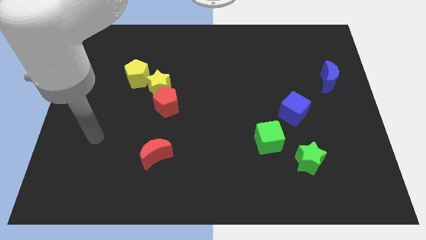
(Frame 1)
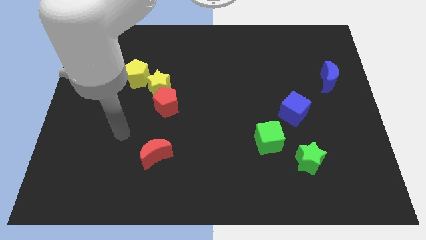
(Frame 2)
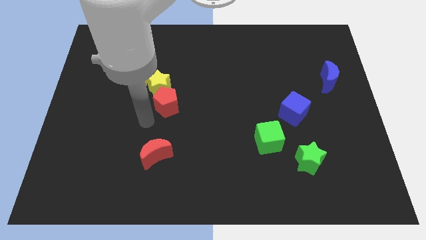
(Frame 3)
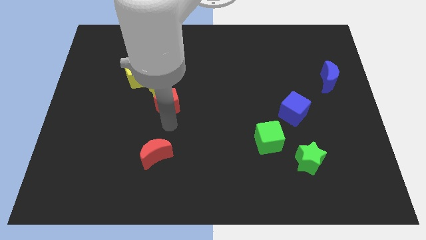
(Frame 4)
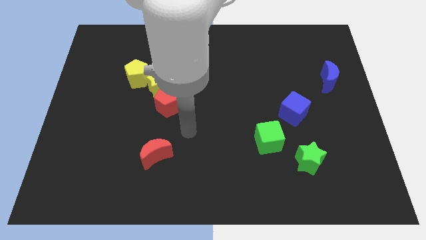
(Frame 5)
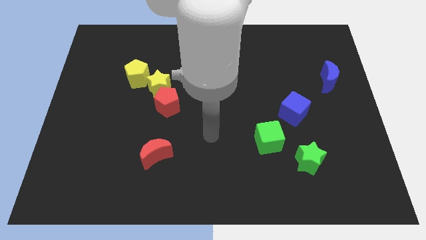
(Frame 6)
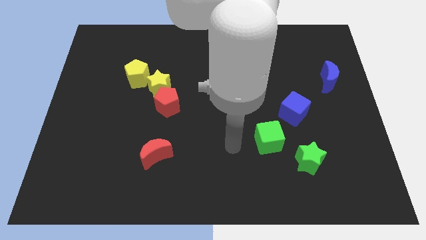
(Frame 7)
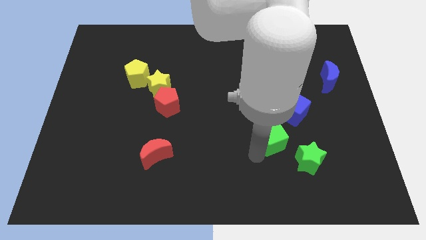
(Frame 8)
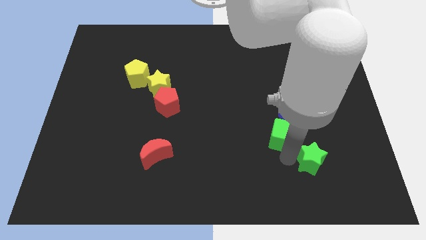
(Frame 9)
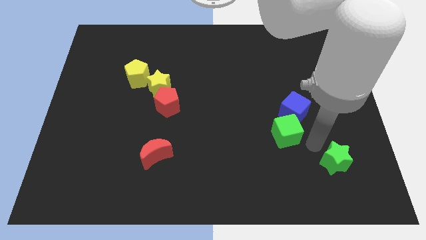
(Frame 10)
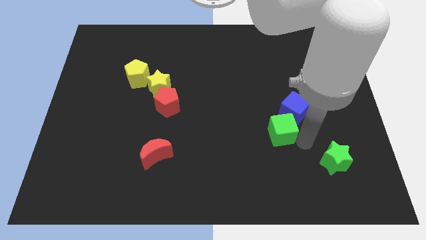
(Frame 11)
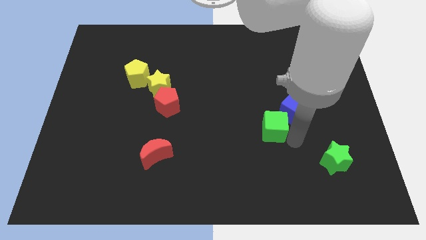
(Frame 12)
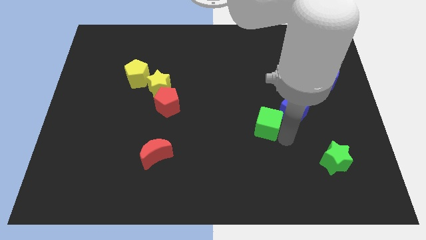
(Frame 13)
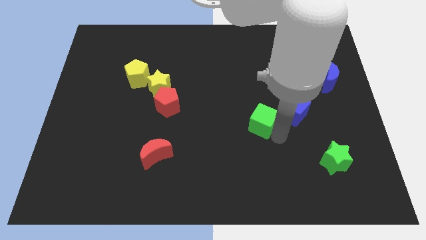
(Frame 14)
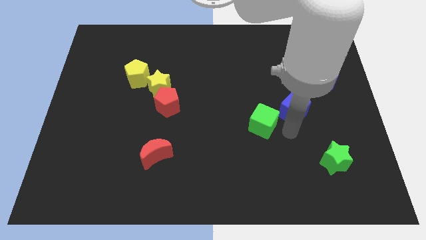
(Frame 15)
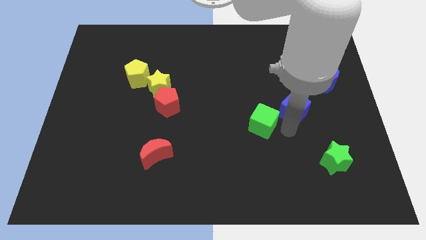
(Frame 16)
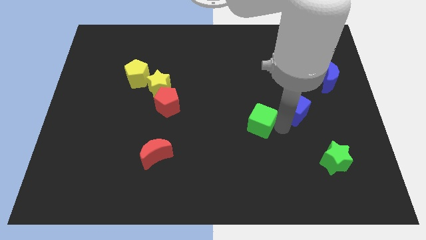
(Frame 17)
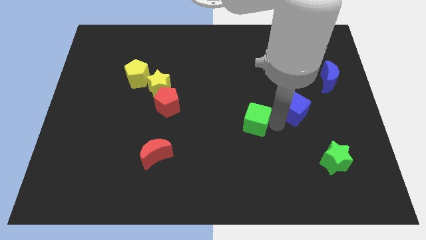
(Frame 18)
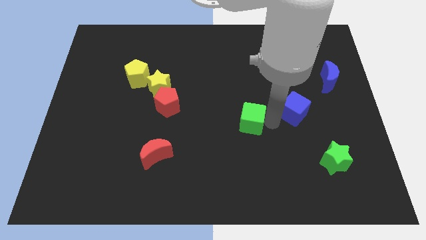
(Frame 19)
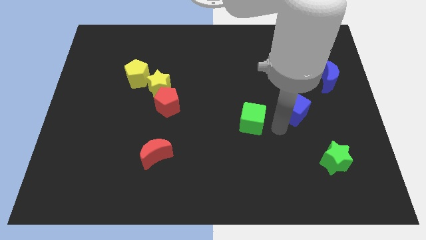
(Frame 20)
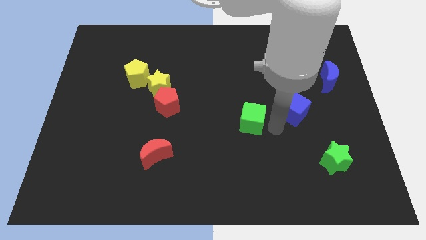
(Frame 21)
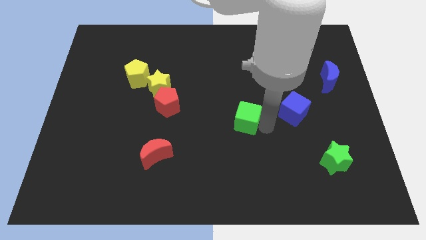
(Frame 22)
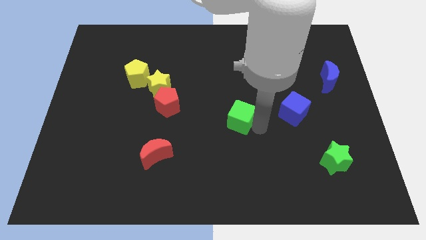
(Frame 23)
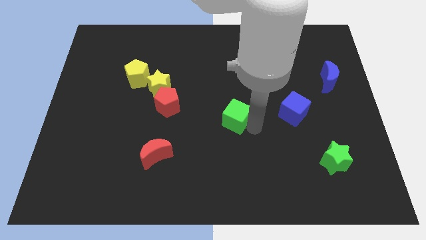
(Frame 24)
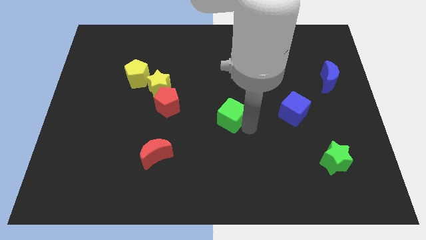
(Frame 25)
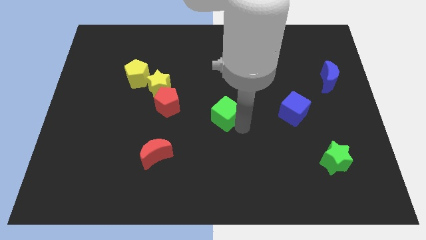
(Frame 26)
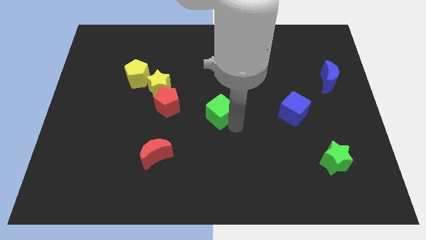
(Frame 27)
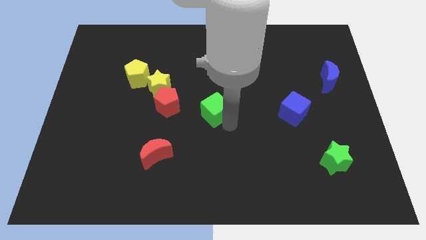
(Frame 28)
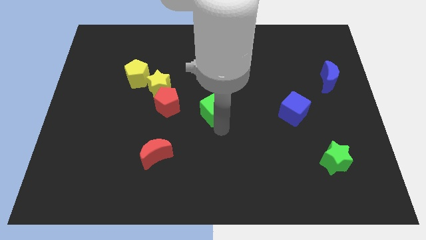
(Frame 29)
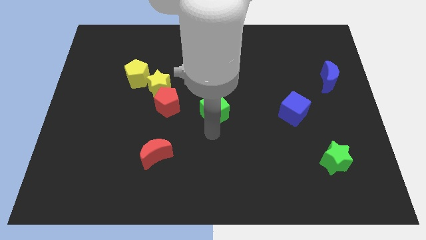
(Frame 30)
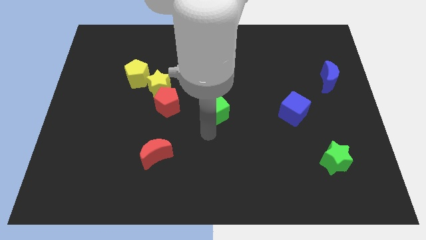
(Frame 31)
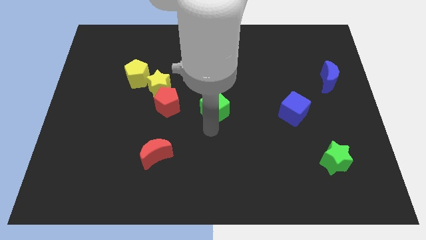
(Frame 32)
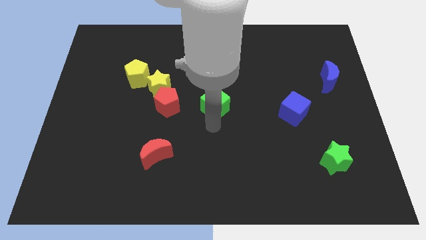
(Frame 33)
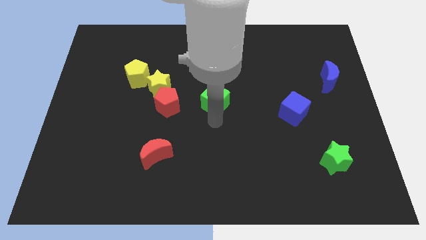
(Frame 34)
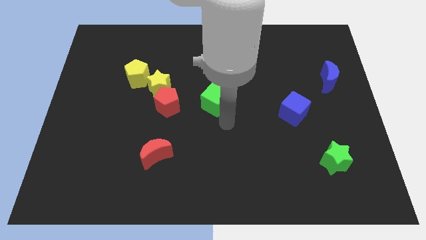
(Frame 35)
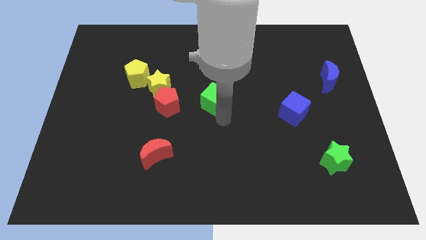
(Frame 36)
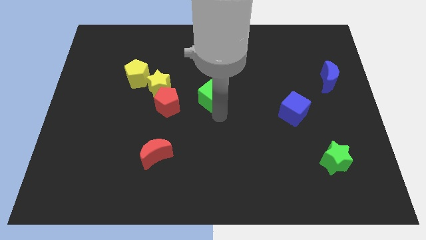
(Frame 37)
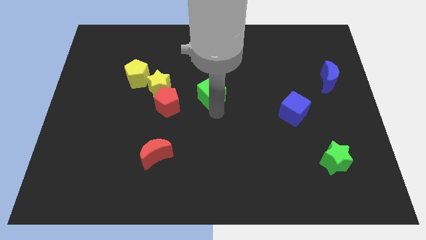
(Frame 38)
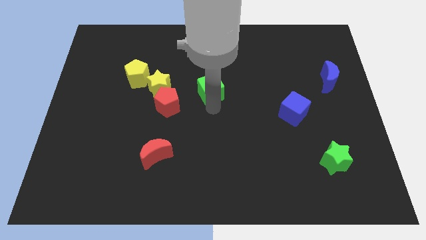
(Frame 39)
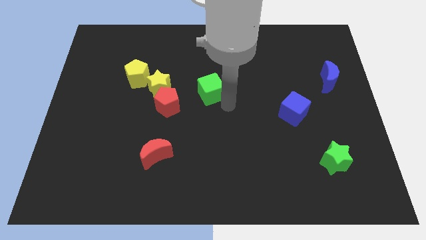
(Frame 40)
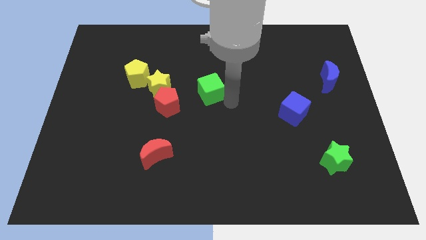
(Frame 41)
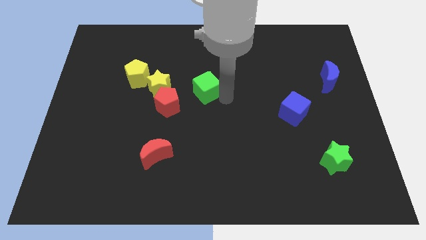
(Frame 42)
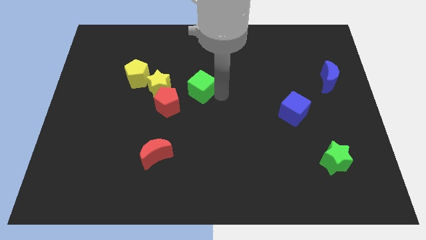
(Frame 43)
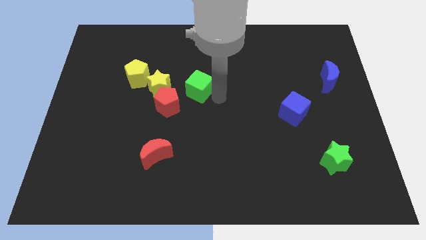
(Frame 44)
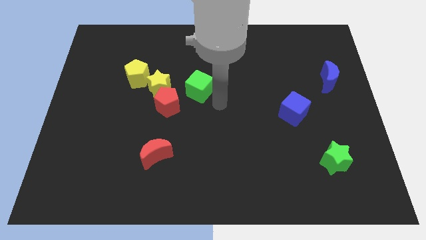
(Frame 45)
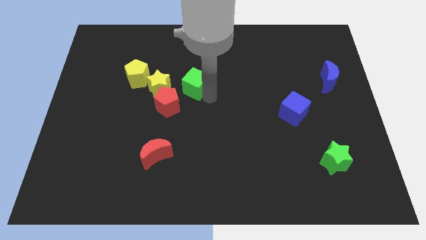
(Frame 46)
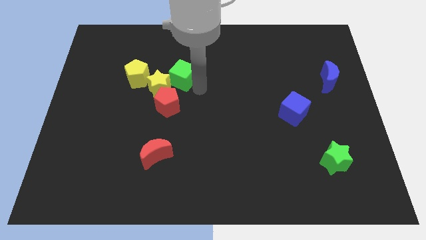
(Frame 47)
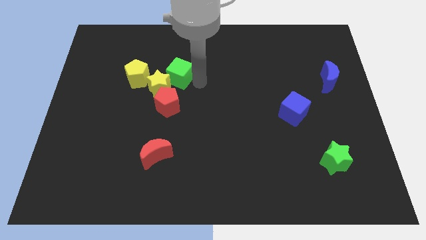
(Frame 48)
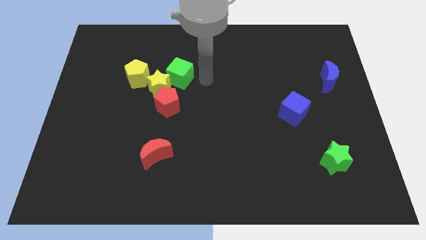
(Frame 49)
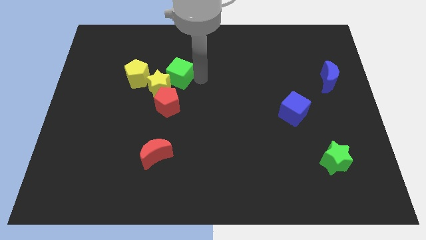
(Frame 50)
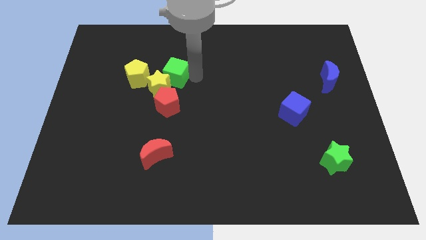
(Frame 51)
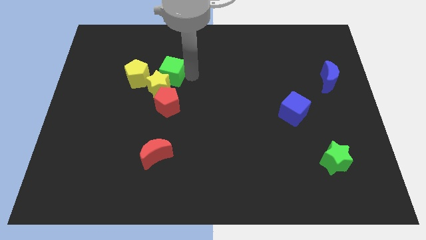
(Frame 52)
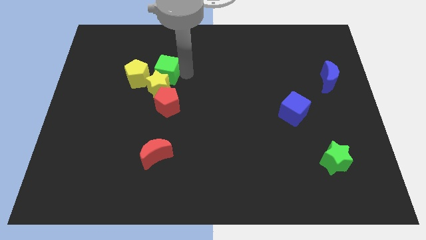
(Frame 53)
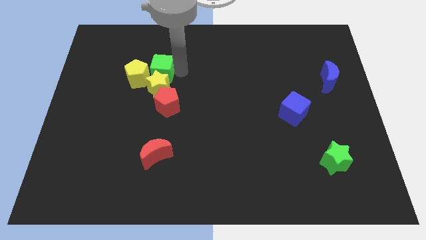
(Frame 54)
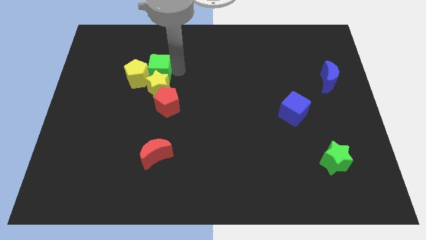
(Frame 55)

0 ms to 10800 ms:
slide the green cube close to the yellow pentagon

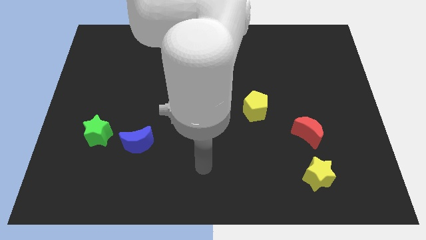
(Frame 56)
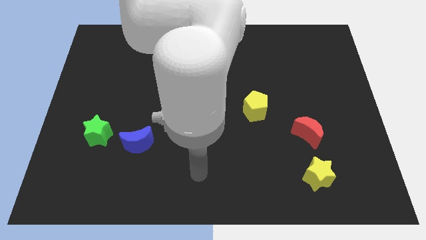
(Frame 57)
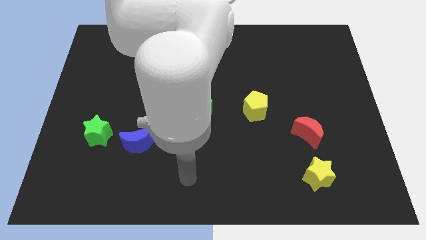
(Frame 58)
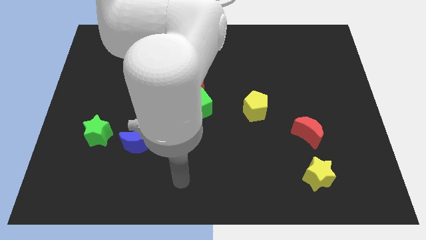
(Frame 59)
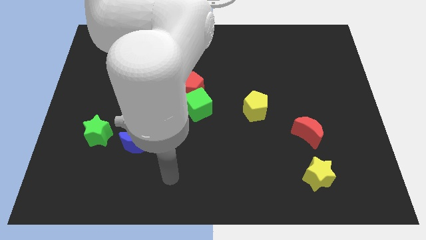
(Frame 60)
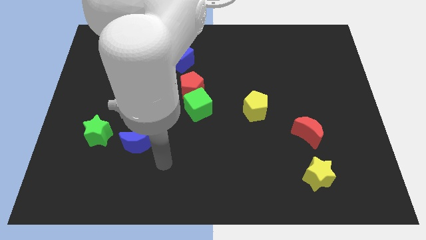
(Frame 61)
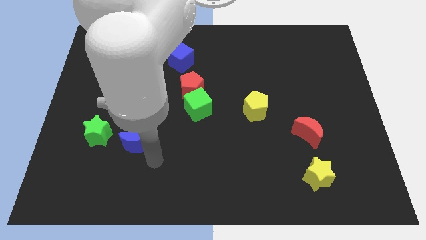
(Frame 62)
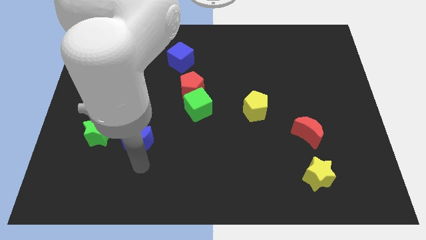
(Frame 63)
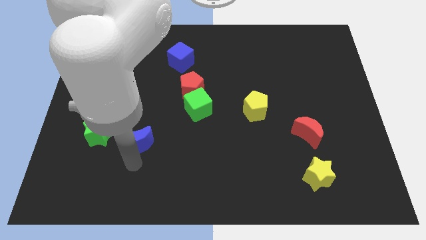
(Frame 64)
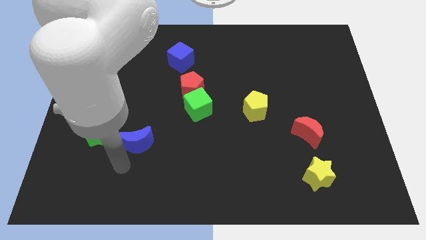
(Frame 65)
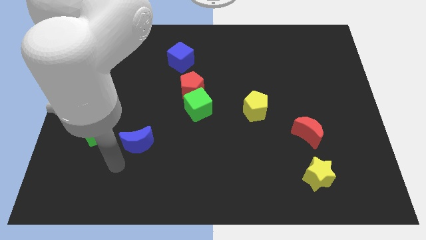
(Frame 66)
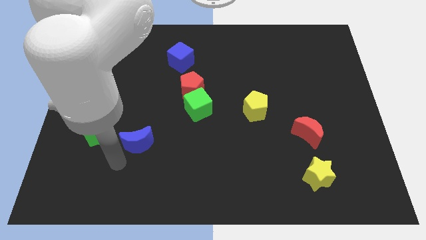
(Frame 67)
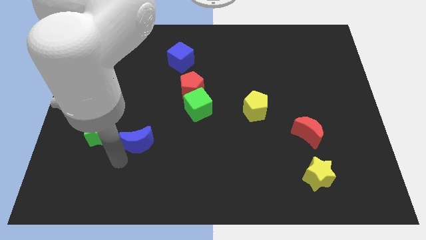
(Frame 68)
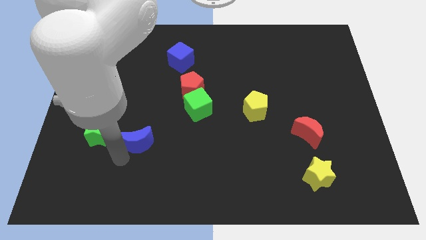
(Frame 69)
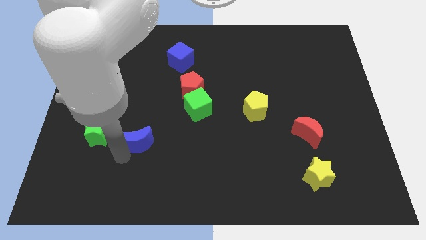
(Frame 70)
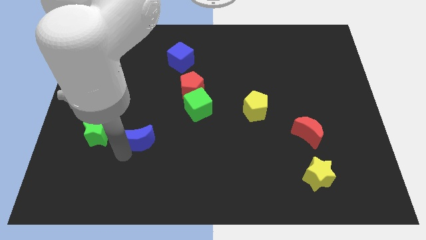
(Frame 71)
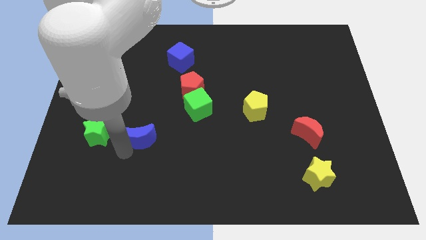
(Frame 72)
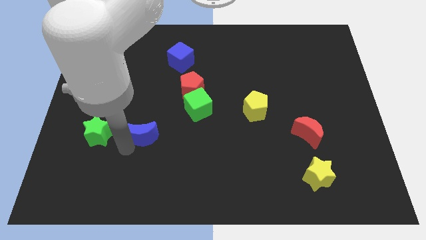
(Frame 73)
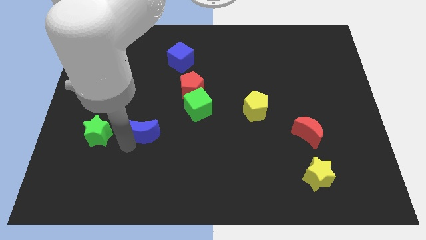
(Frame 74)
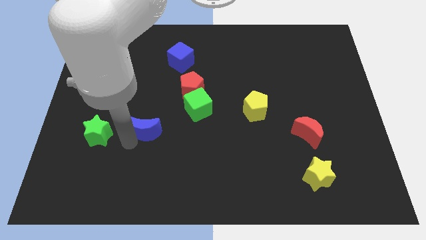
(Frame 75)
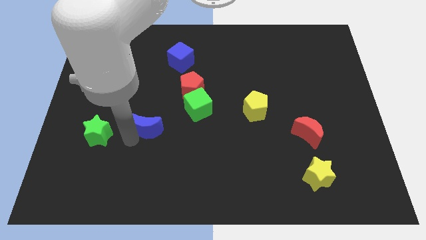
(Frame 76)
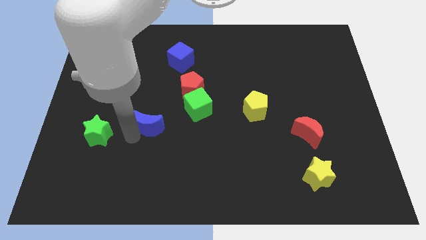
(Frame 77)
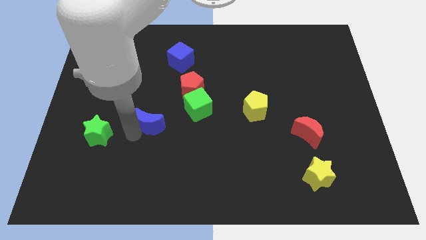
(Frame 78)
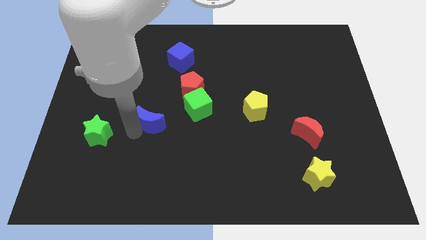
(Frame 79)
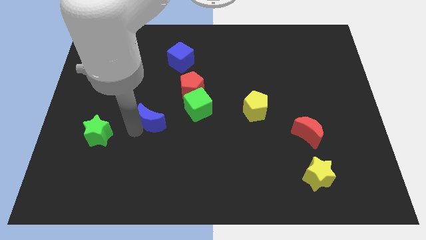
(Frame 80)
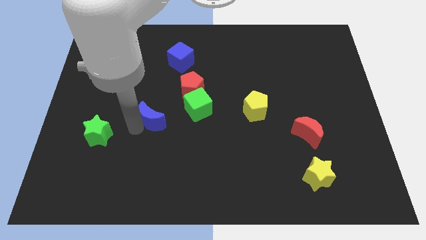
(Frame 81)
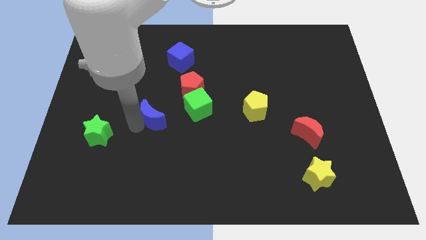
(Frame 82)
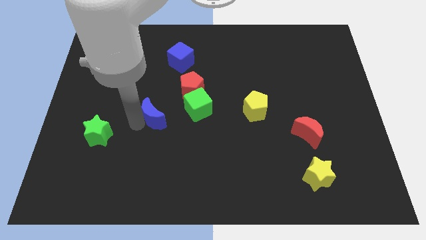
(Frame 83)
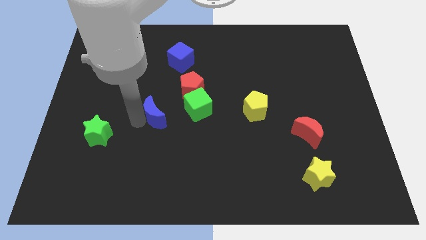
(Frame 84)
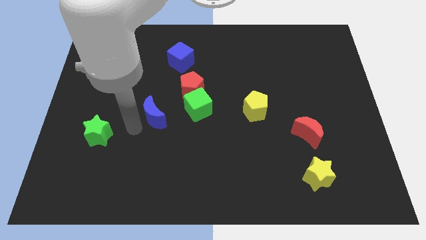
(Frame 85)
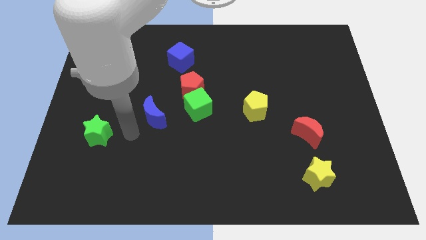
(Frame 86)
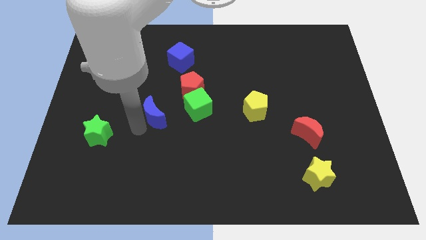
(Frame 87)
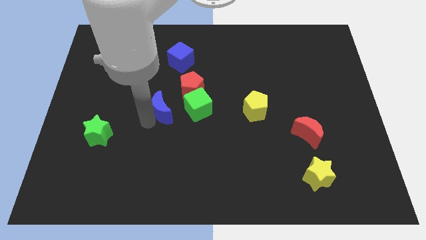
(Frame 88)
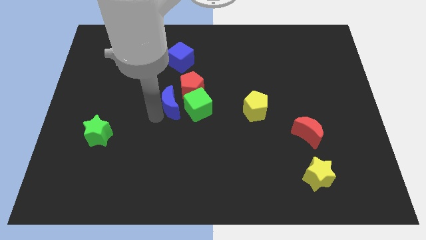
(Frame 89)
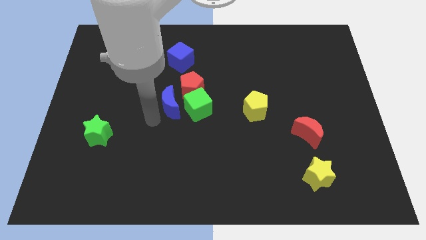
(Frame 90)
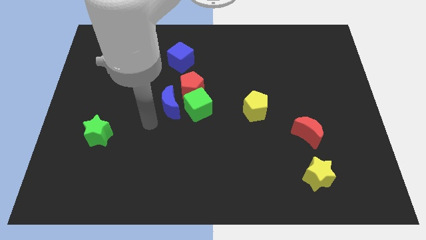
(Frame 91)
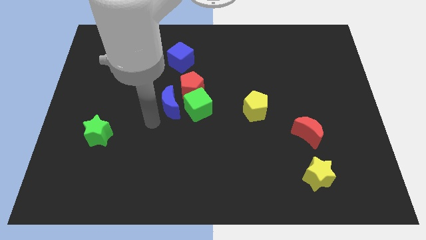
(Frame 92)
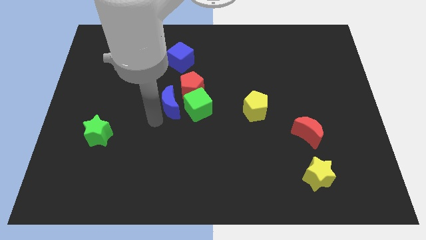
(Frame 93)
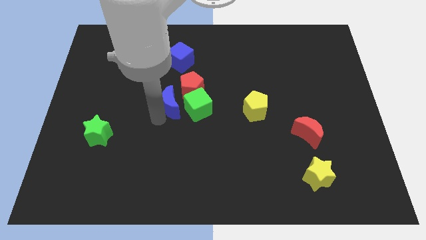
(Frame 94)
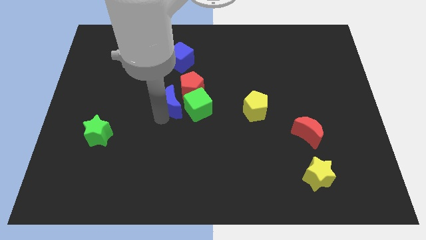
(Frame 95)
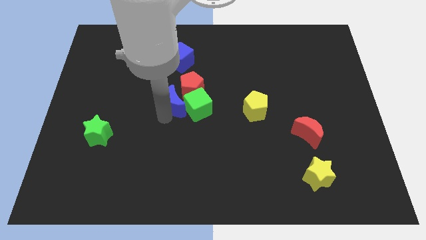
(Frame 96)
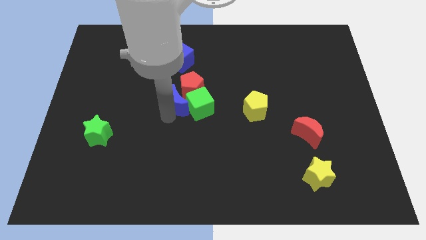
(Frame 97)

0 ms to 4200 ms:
push the blue moon close to the red pentagon
